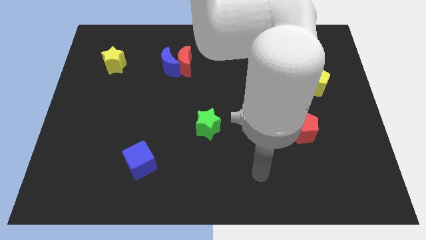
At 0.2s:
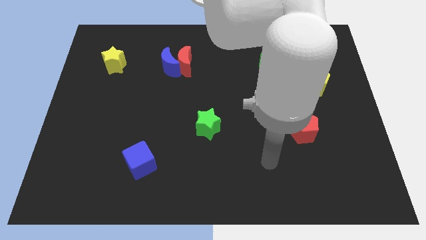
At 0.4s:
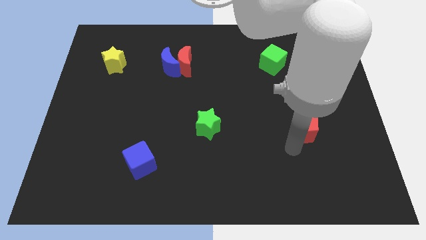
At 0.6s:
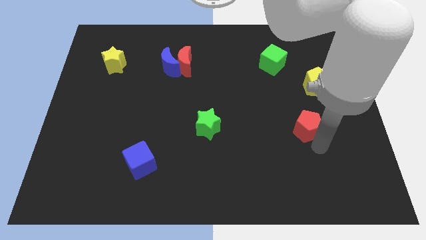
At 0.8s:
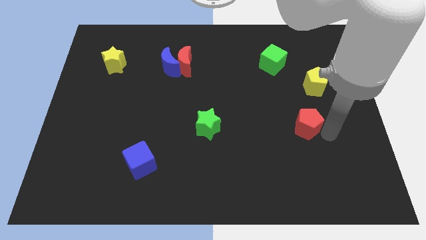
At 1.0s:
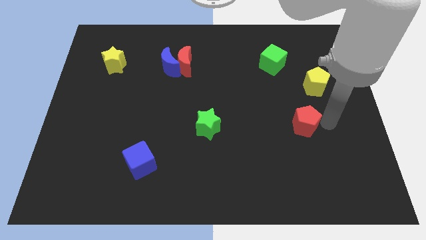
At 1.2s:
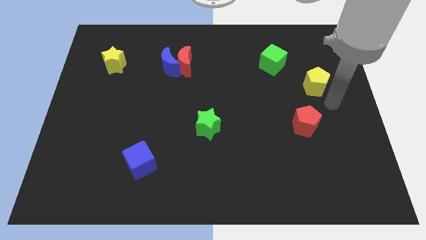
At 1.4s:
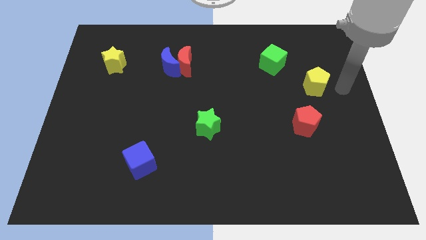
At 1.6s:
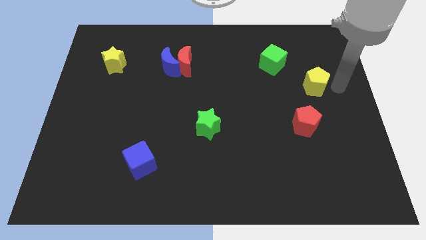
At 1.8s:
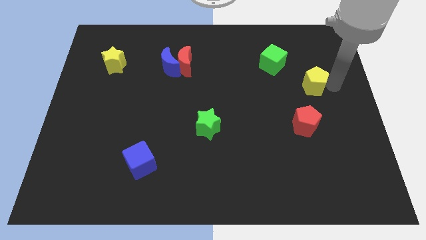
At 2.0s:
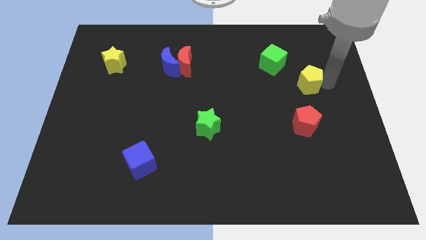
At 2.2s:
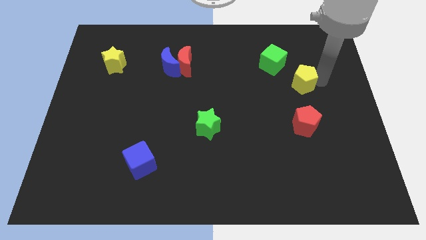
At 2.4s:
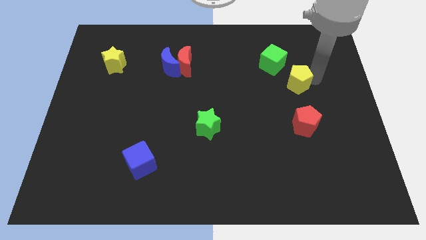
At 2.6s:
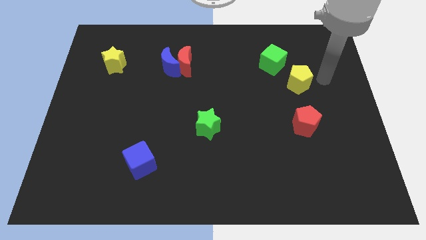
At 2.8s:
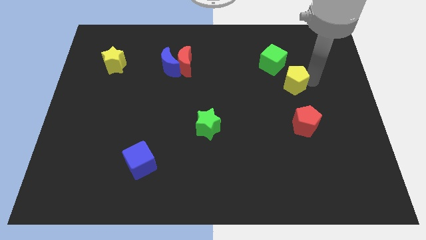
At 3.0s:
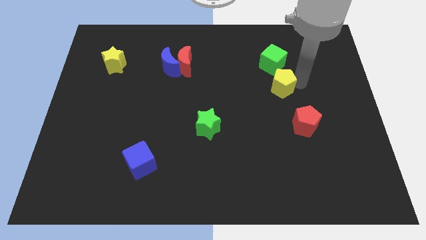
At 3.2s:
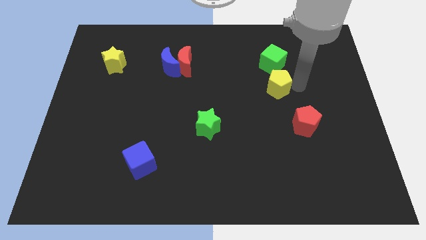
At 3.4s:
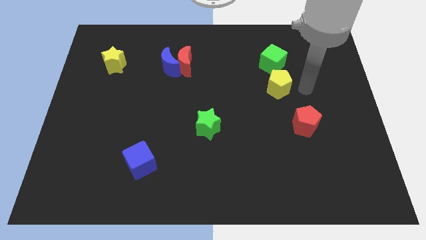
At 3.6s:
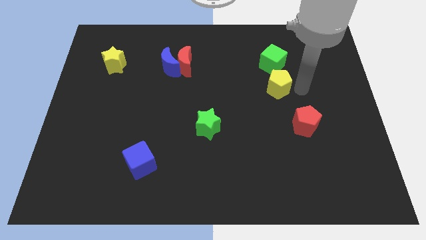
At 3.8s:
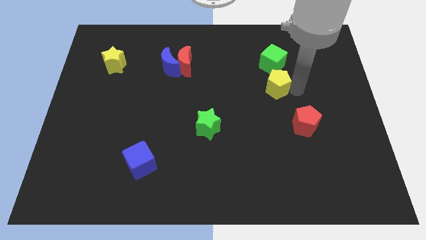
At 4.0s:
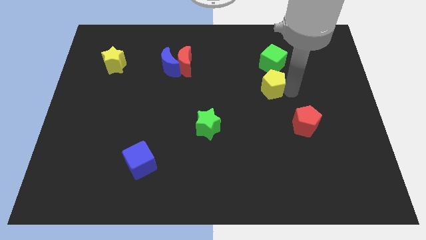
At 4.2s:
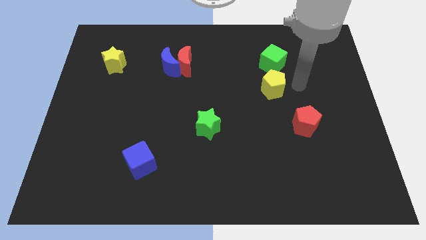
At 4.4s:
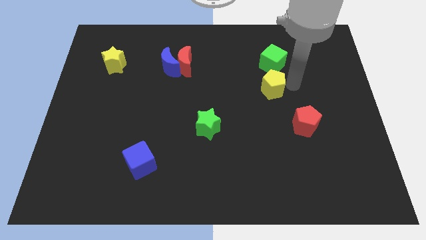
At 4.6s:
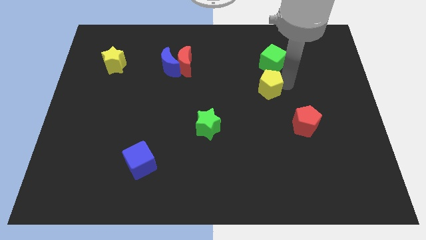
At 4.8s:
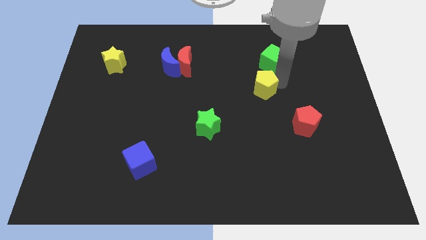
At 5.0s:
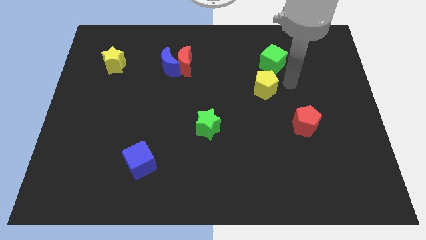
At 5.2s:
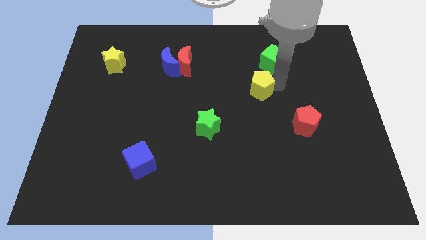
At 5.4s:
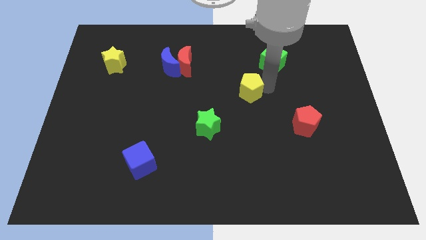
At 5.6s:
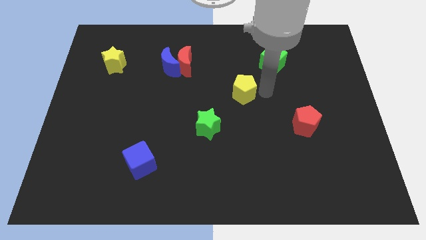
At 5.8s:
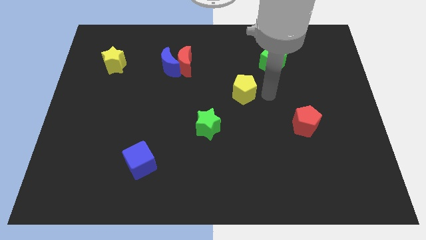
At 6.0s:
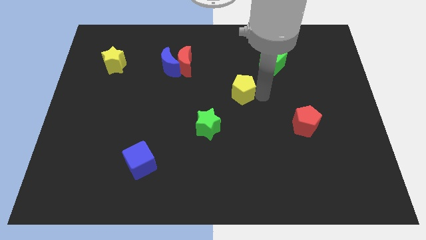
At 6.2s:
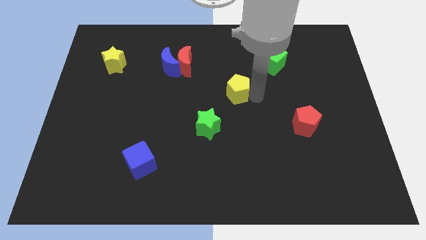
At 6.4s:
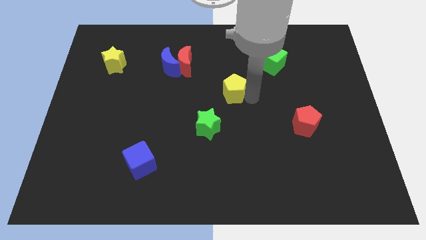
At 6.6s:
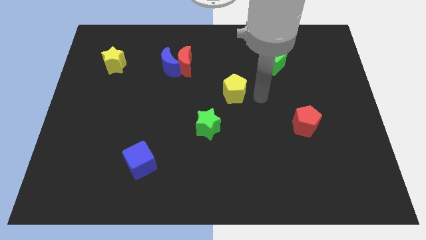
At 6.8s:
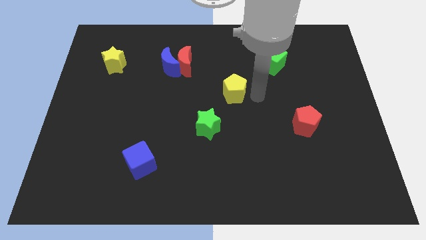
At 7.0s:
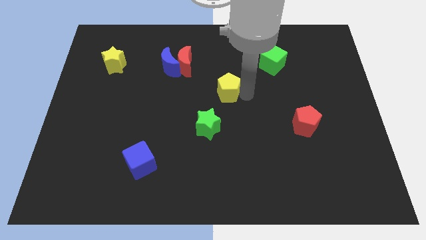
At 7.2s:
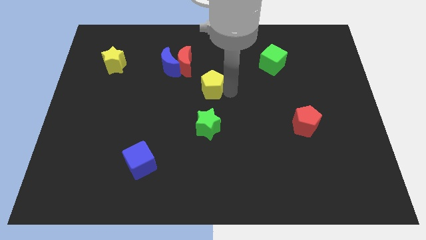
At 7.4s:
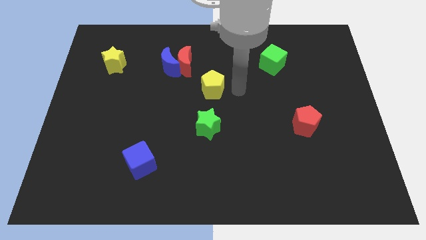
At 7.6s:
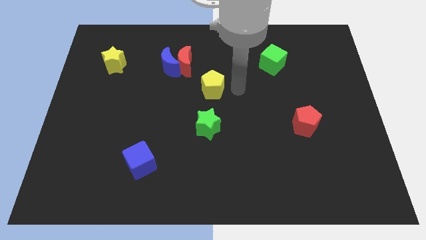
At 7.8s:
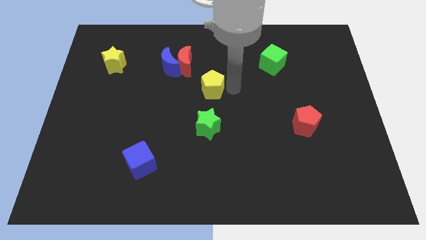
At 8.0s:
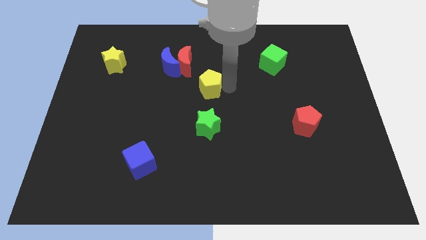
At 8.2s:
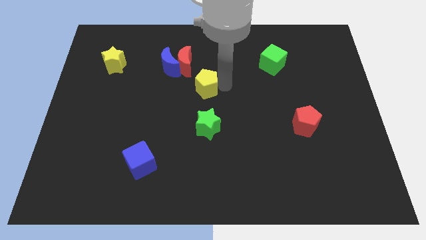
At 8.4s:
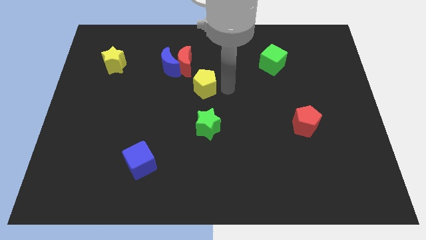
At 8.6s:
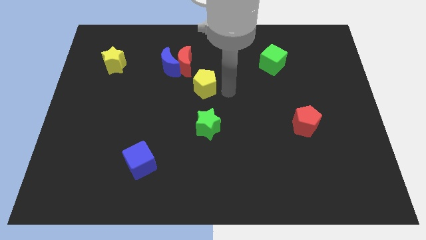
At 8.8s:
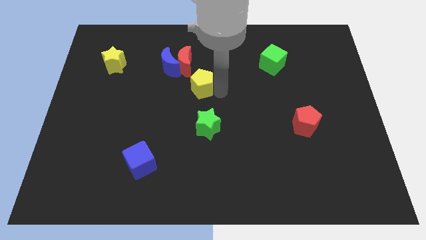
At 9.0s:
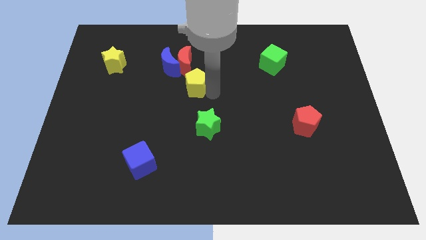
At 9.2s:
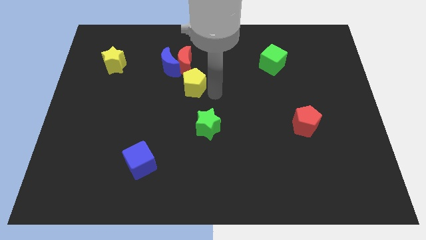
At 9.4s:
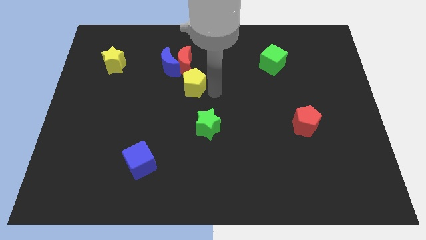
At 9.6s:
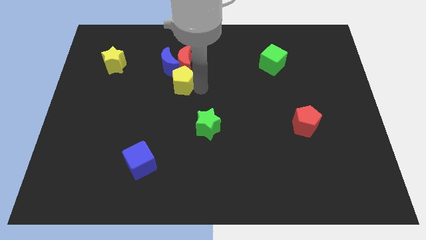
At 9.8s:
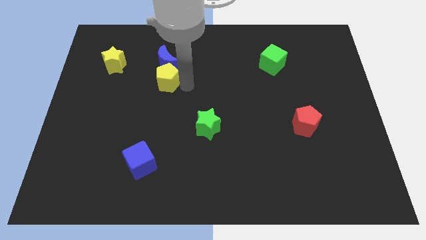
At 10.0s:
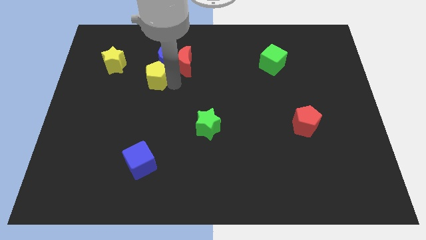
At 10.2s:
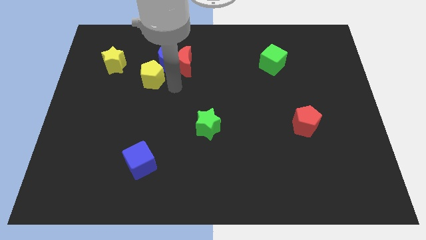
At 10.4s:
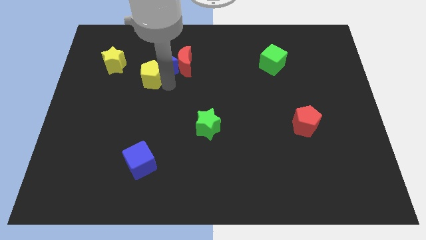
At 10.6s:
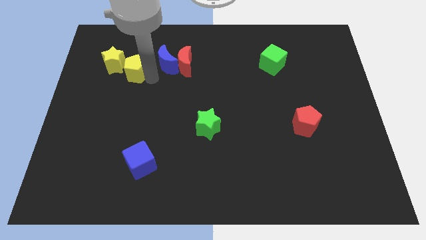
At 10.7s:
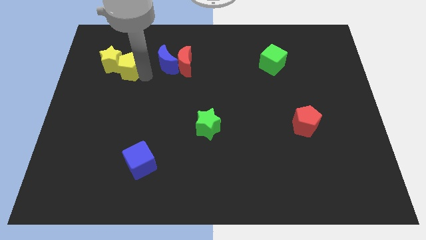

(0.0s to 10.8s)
slide the yellow pentagon towards the yellow star

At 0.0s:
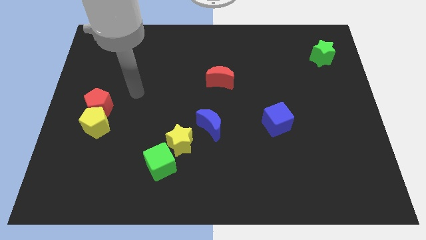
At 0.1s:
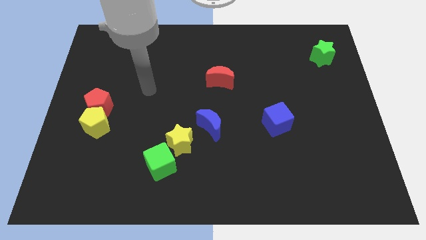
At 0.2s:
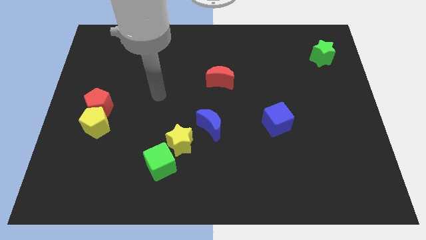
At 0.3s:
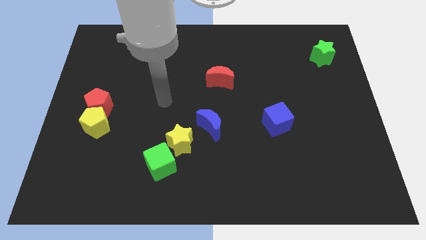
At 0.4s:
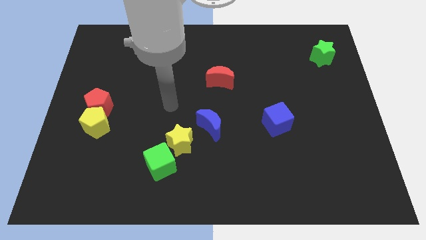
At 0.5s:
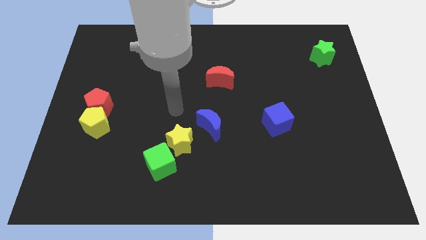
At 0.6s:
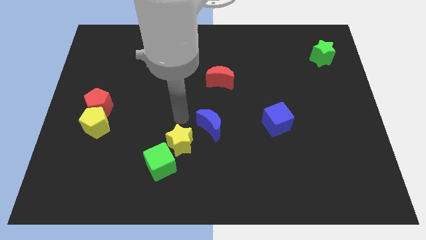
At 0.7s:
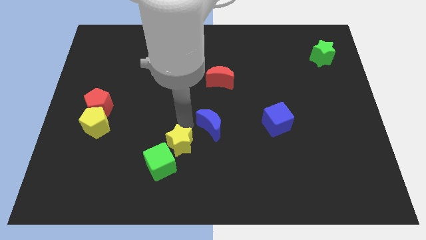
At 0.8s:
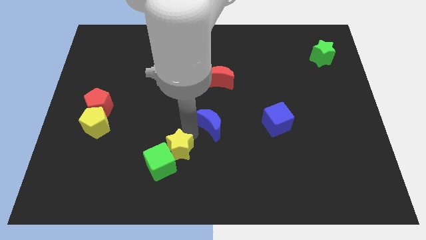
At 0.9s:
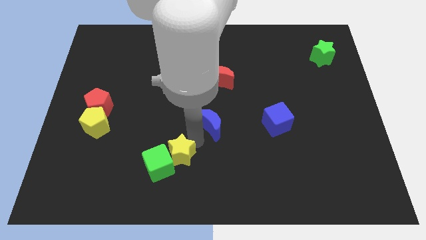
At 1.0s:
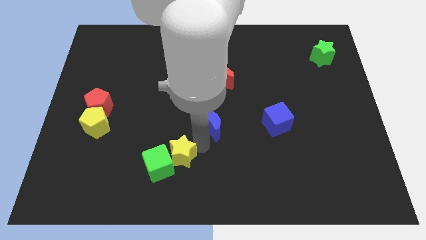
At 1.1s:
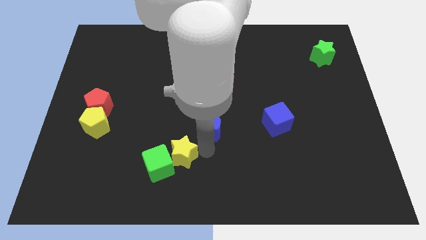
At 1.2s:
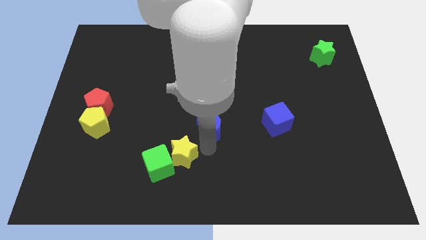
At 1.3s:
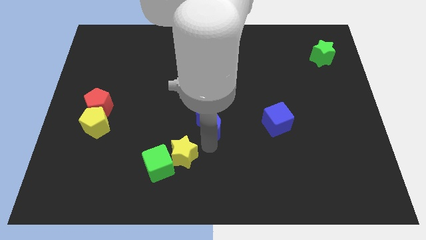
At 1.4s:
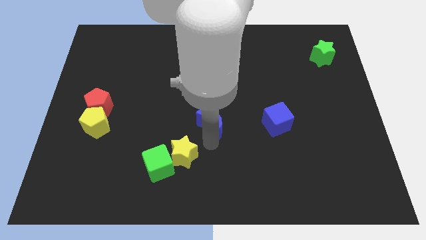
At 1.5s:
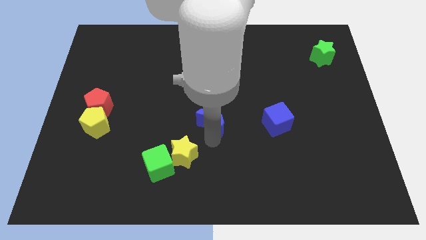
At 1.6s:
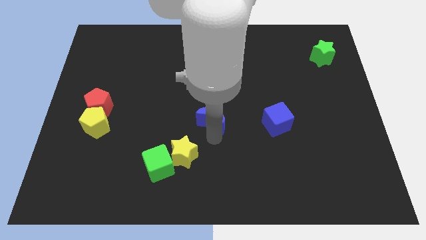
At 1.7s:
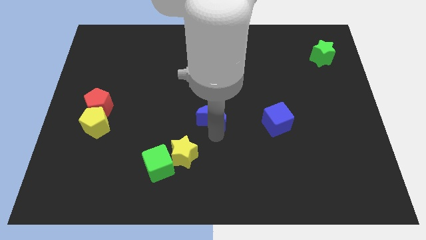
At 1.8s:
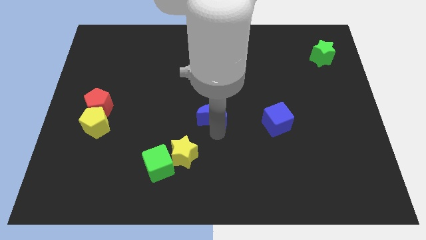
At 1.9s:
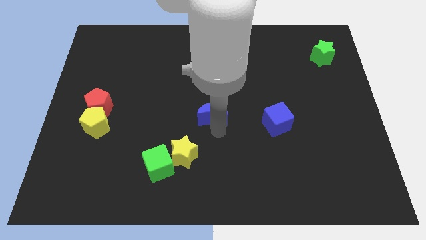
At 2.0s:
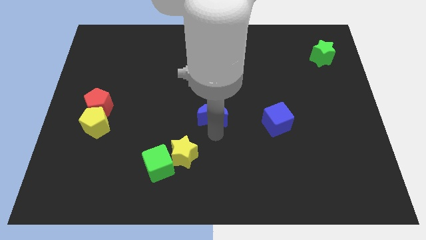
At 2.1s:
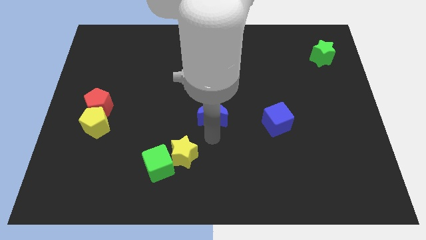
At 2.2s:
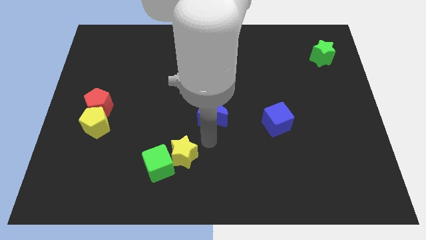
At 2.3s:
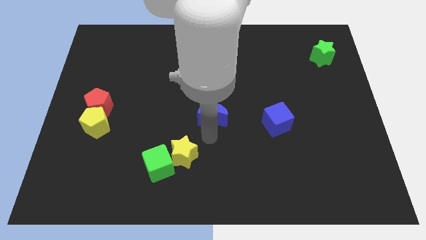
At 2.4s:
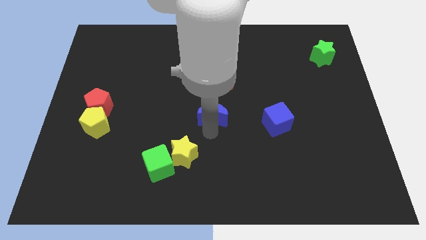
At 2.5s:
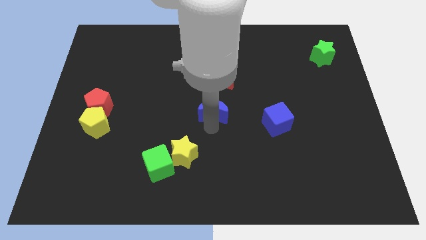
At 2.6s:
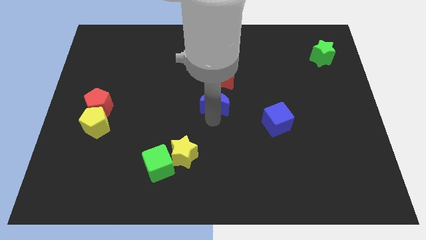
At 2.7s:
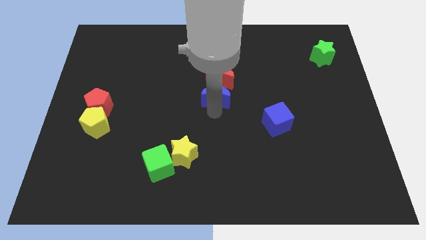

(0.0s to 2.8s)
push the blue moon next to the red moon
